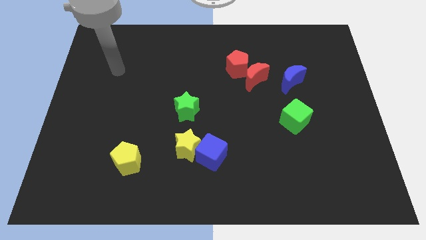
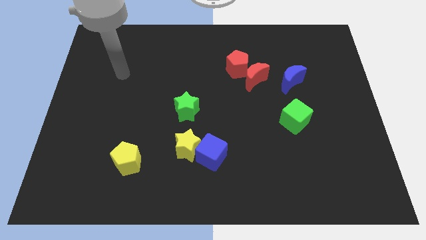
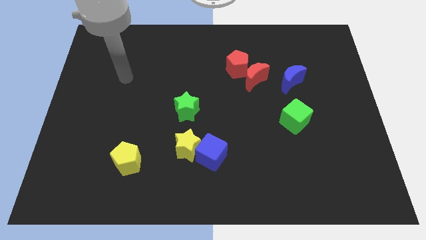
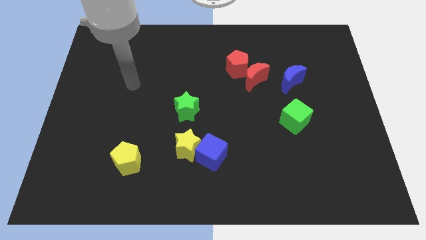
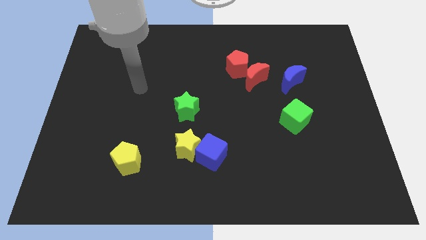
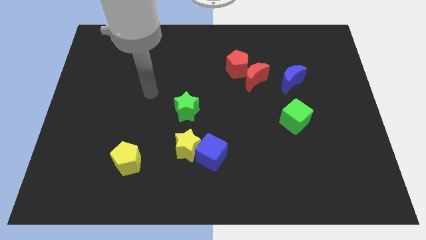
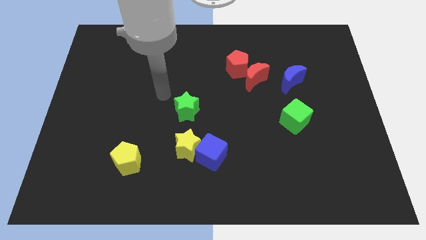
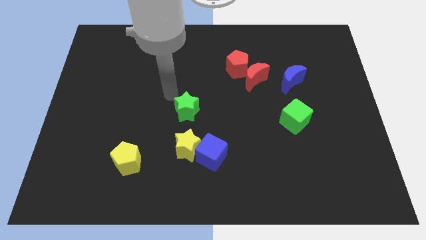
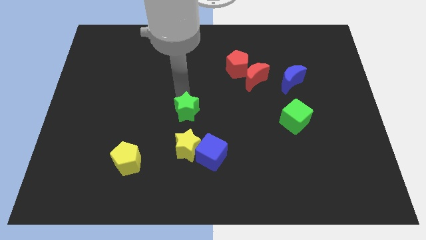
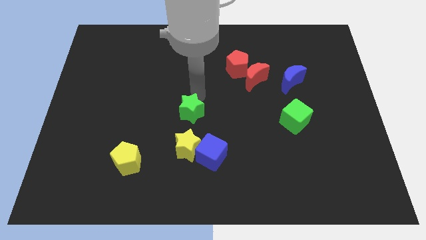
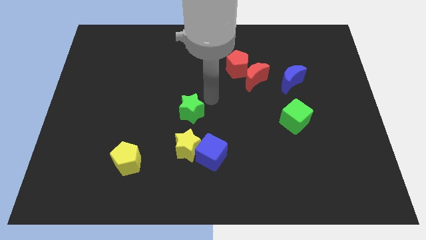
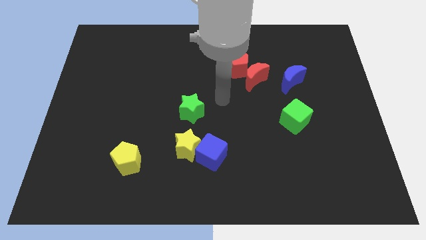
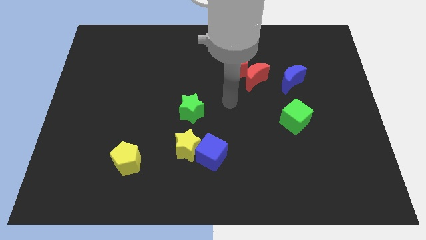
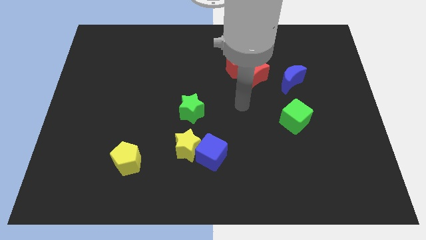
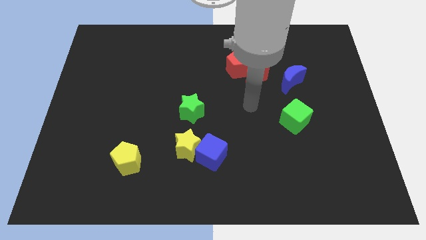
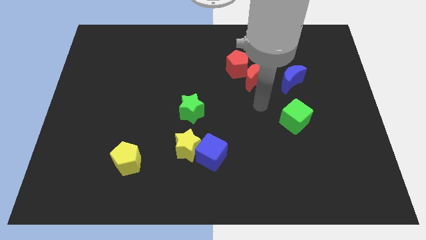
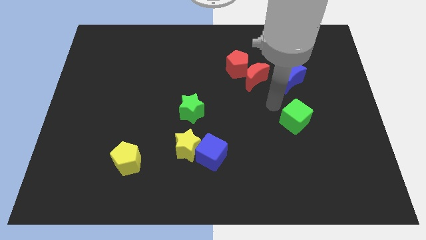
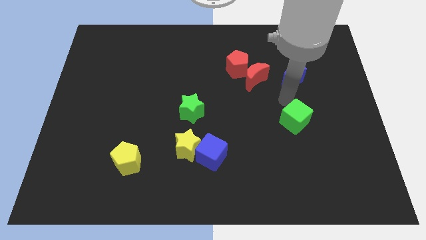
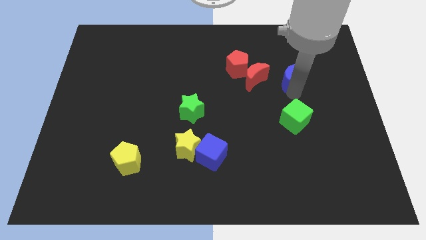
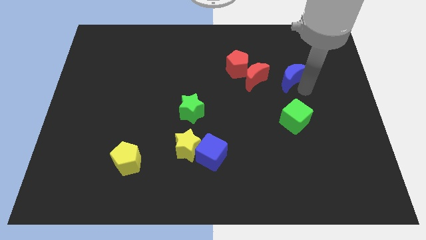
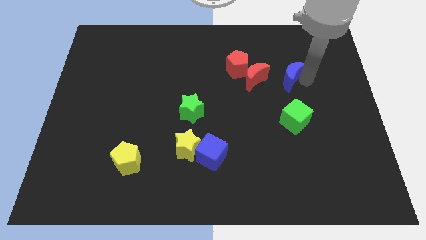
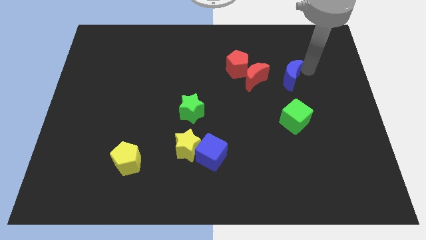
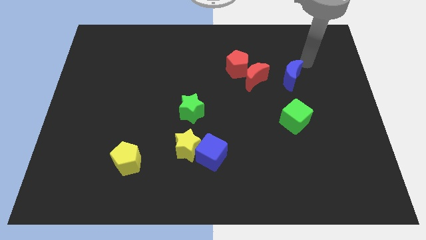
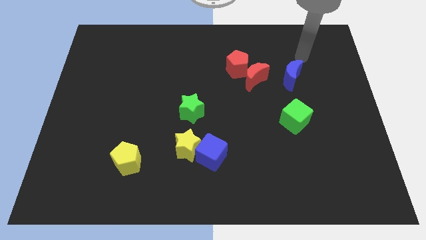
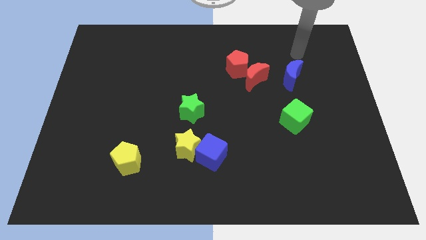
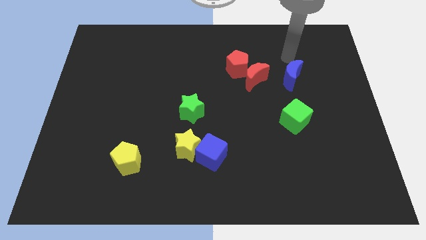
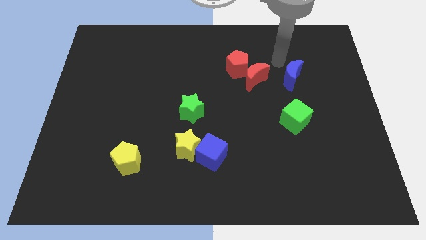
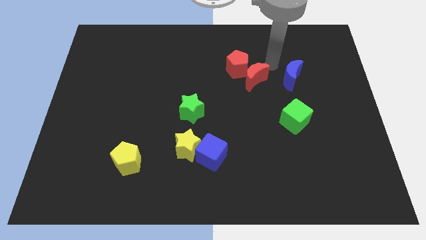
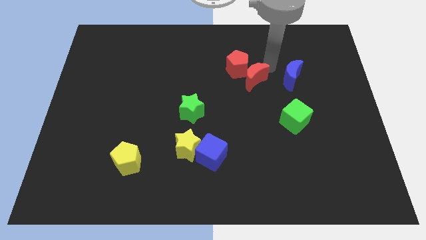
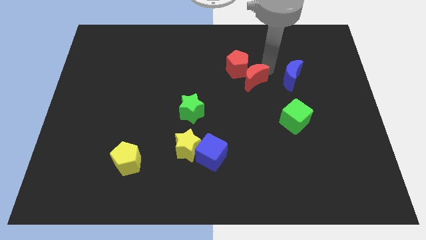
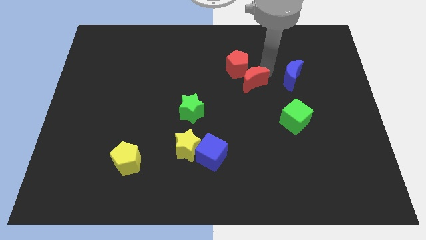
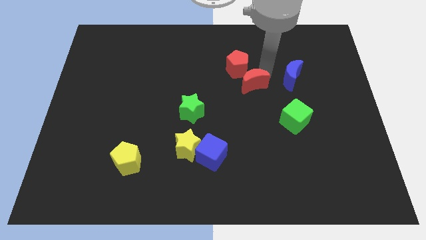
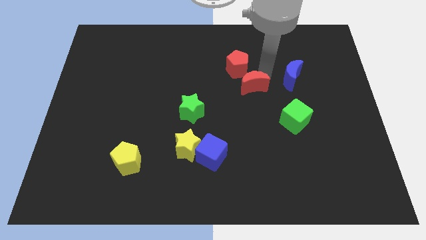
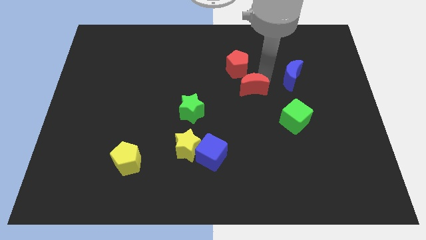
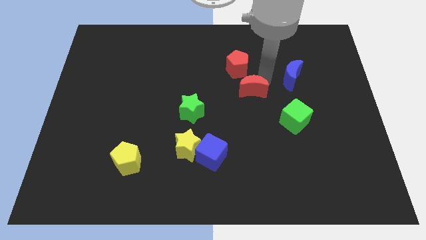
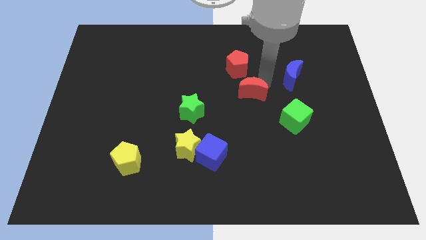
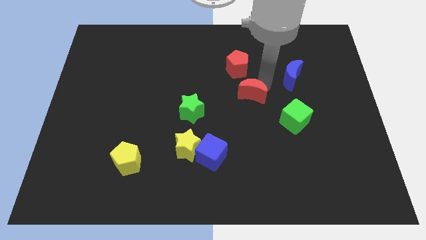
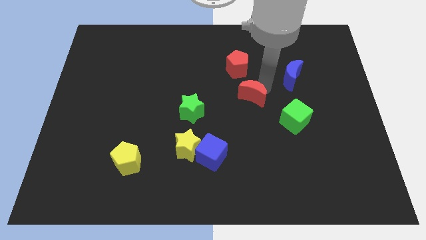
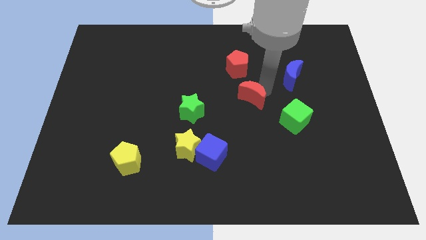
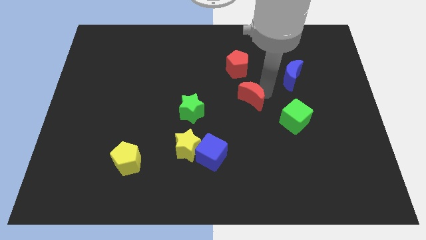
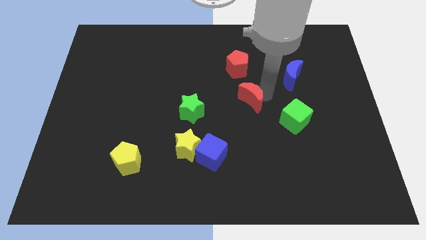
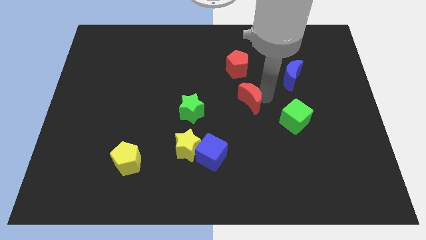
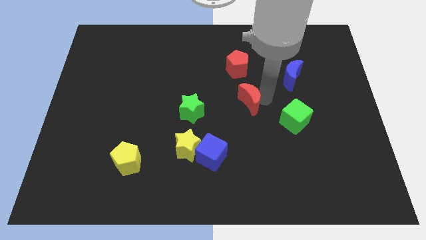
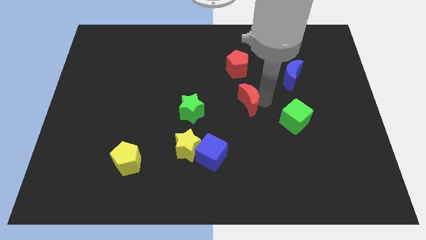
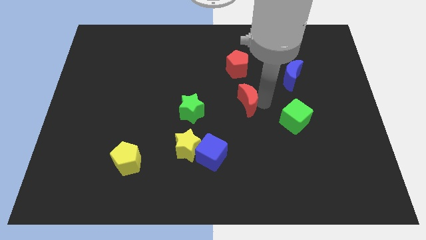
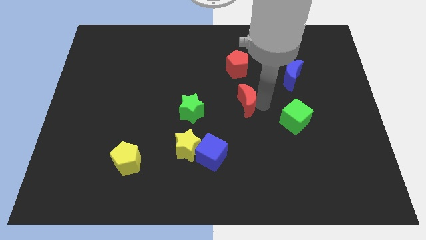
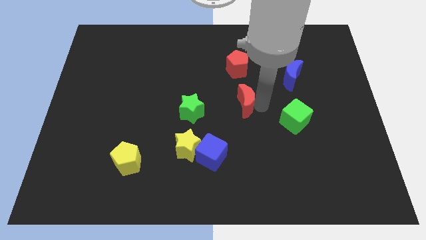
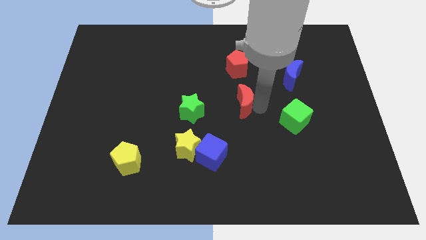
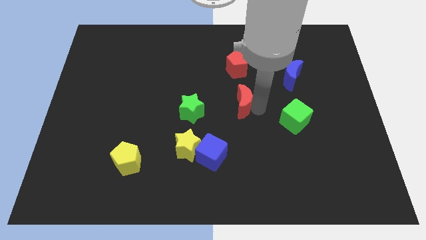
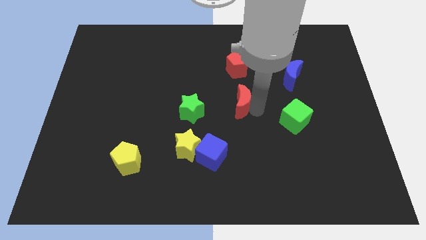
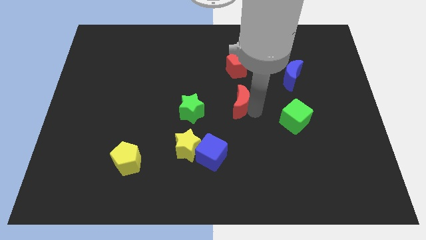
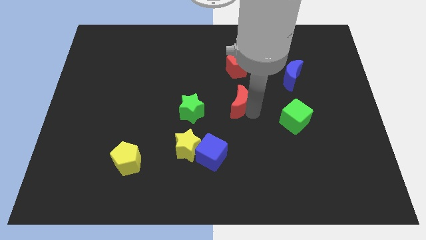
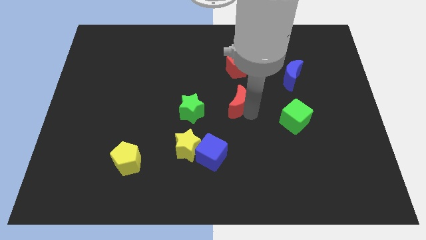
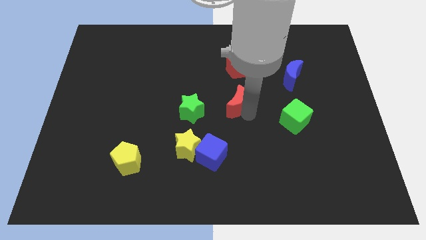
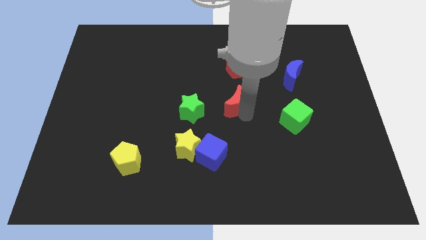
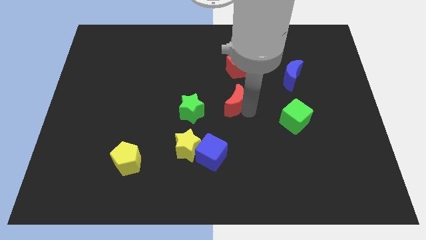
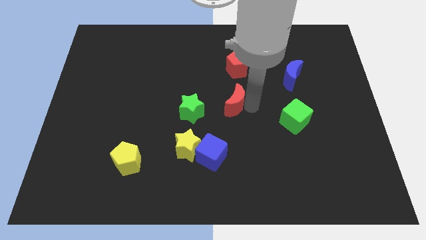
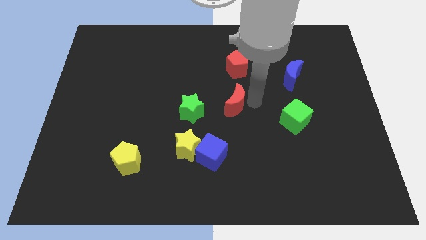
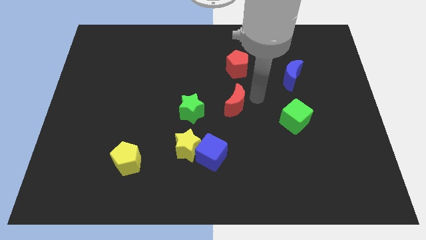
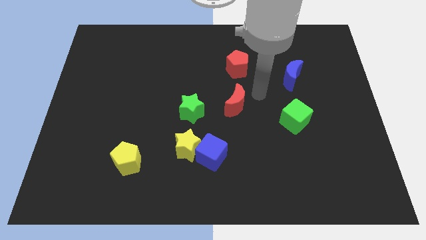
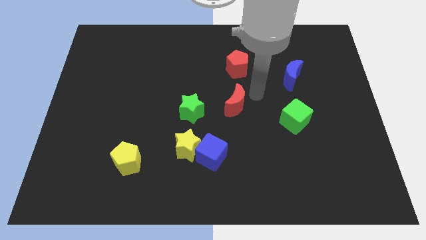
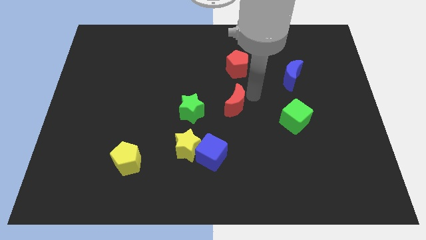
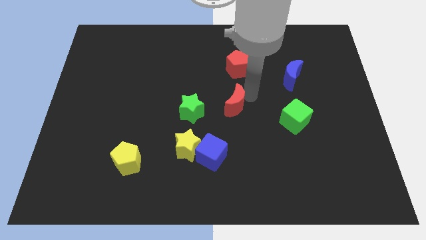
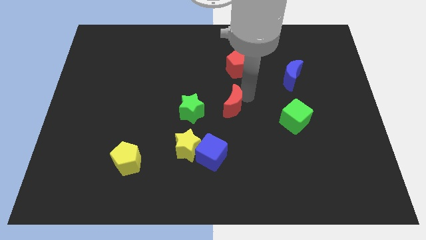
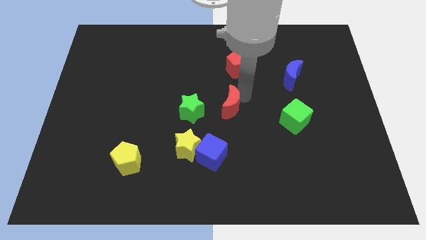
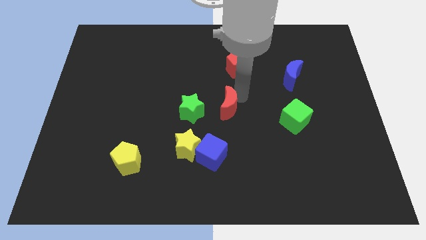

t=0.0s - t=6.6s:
push the red moon to the top of the blue cube
